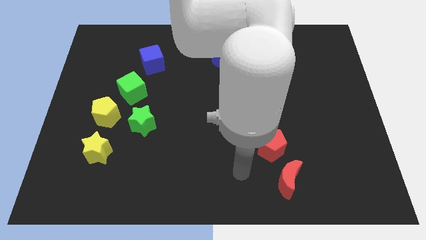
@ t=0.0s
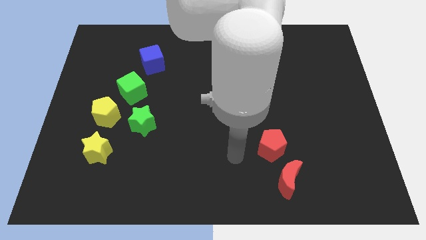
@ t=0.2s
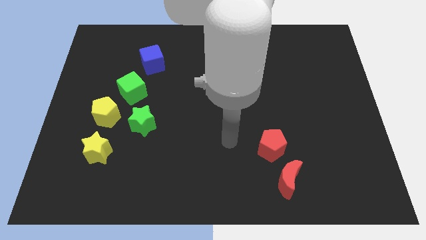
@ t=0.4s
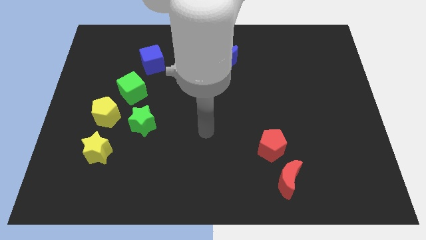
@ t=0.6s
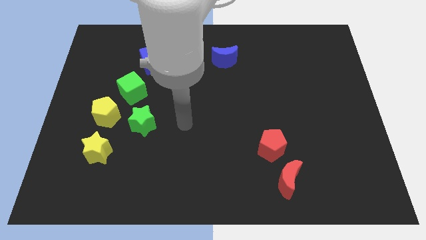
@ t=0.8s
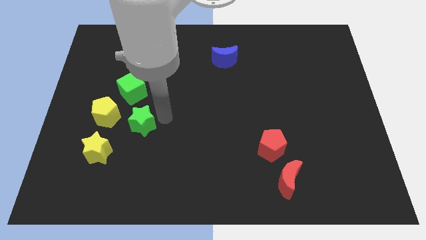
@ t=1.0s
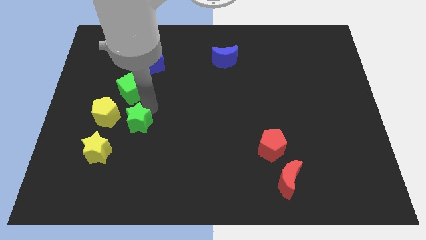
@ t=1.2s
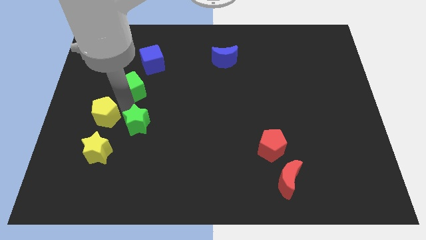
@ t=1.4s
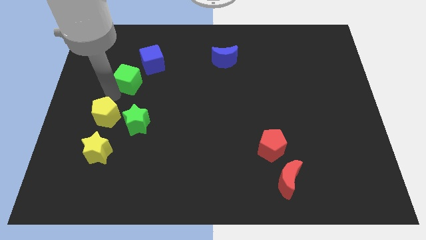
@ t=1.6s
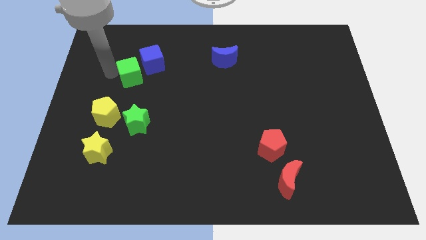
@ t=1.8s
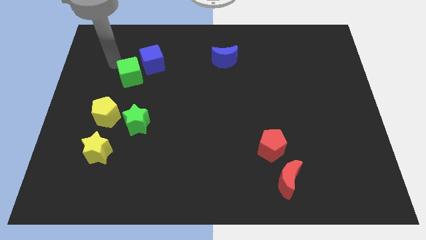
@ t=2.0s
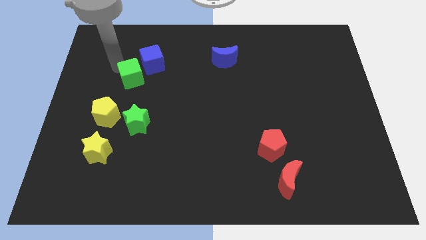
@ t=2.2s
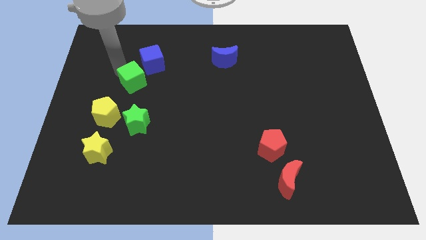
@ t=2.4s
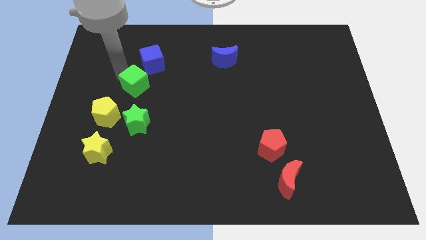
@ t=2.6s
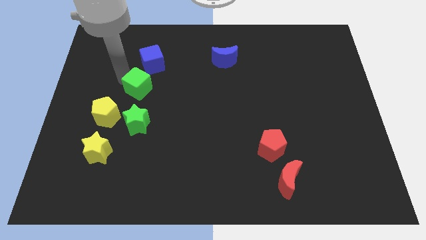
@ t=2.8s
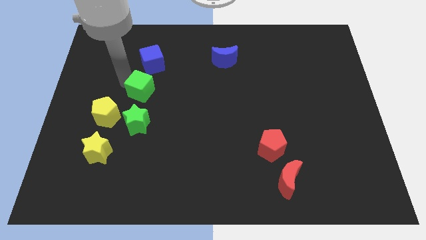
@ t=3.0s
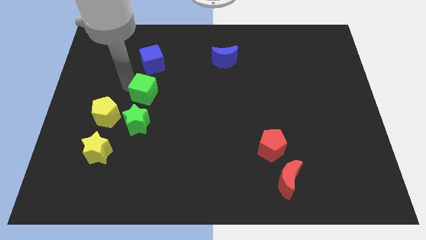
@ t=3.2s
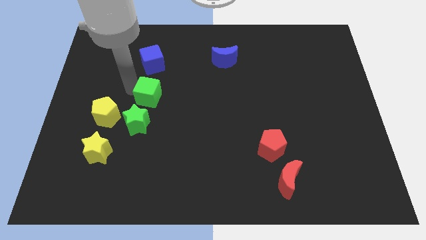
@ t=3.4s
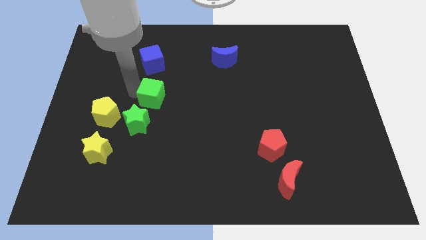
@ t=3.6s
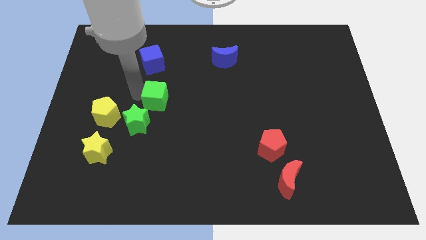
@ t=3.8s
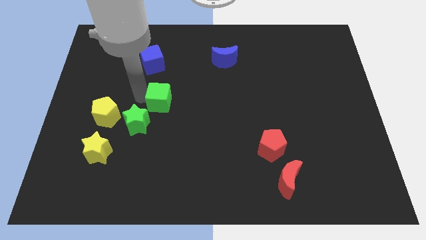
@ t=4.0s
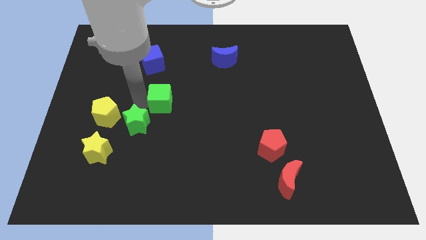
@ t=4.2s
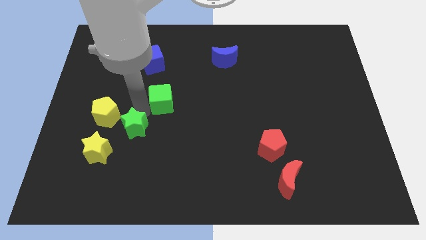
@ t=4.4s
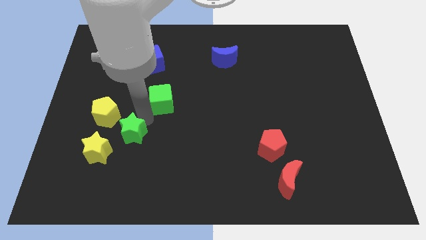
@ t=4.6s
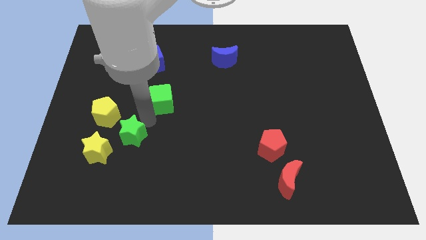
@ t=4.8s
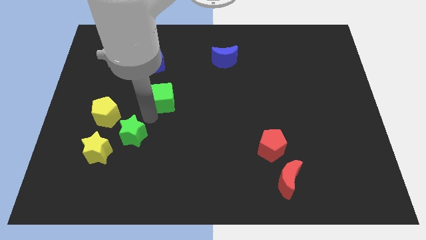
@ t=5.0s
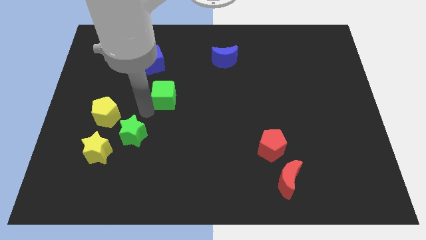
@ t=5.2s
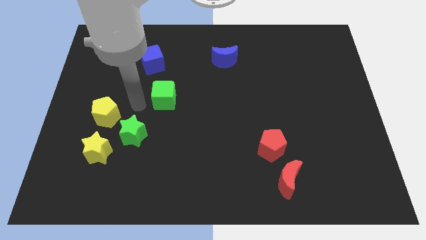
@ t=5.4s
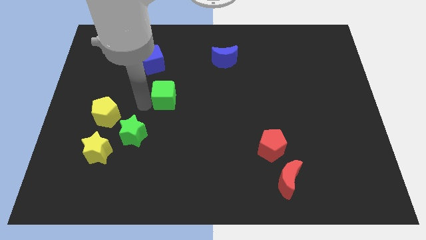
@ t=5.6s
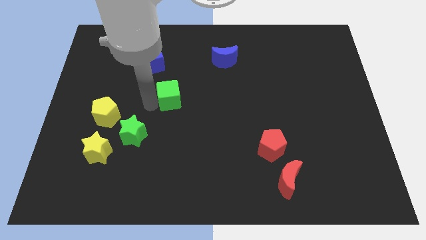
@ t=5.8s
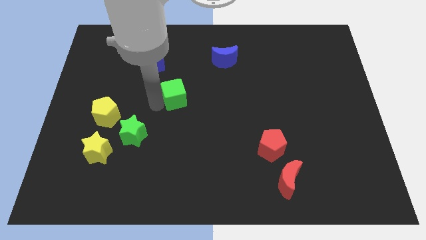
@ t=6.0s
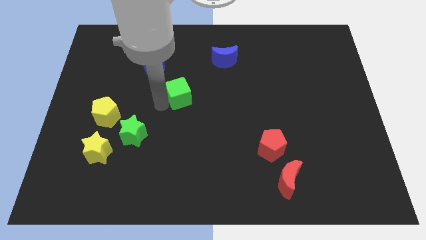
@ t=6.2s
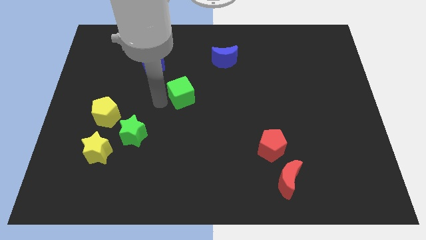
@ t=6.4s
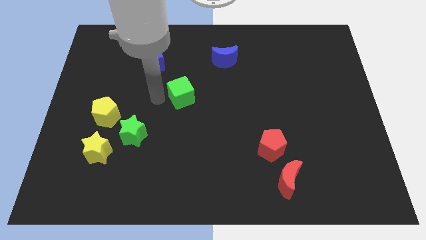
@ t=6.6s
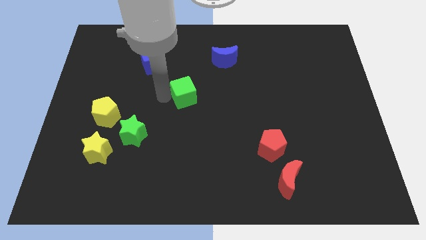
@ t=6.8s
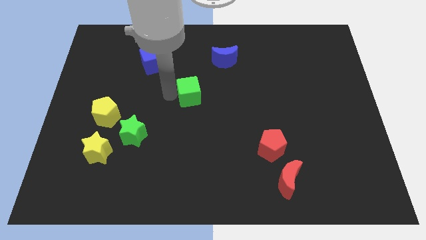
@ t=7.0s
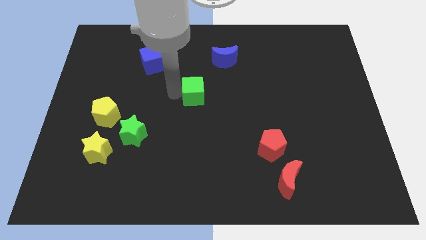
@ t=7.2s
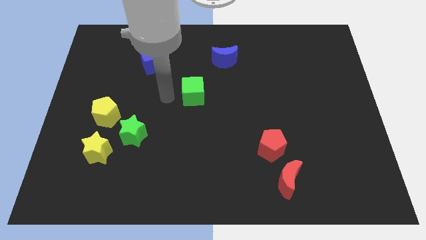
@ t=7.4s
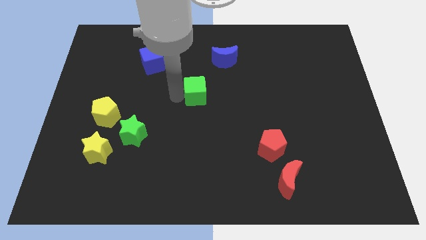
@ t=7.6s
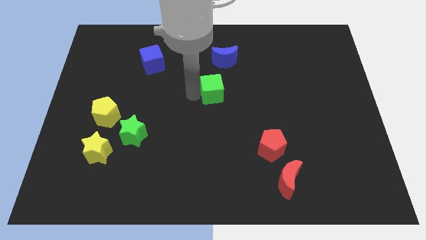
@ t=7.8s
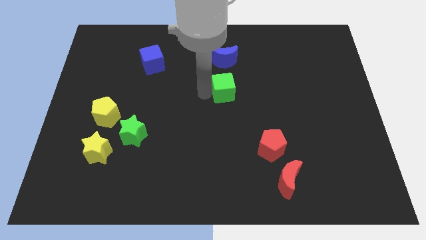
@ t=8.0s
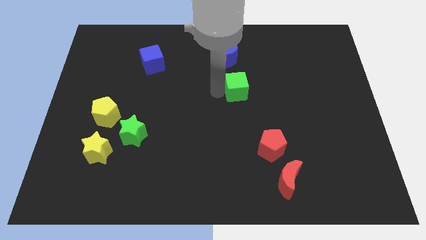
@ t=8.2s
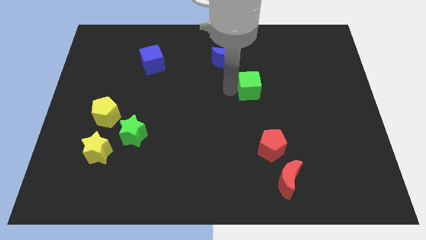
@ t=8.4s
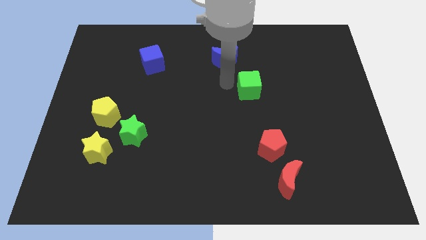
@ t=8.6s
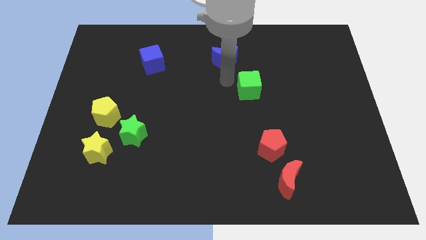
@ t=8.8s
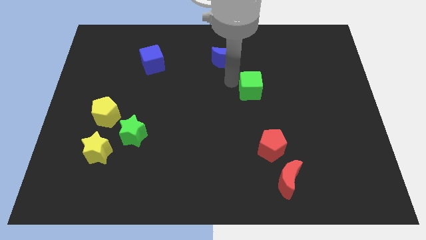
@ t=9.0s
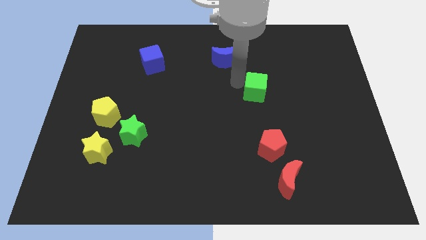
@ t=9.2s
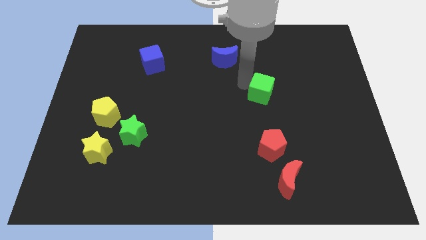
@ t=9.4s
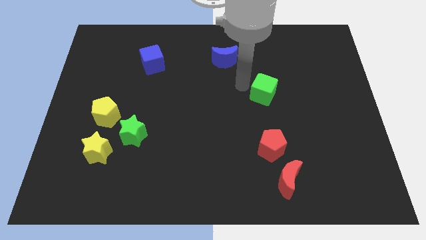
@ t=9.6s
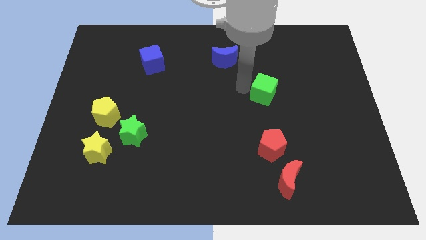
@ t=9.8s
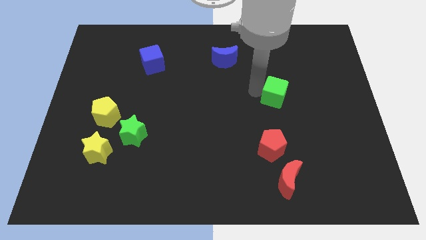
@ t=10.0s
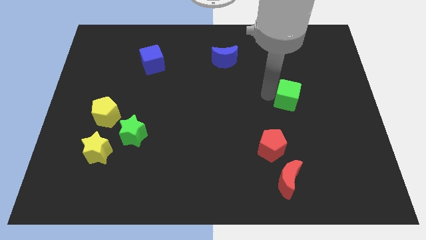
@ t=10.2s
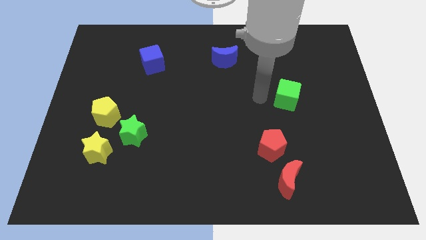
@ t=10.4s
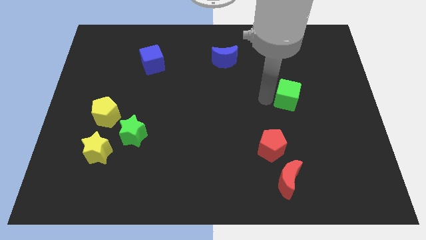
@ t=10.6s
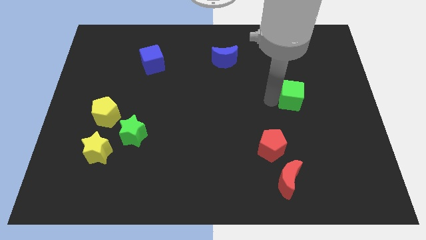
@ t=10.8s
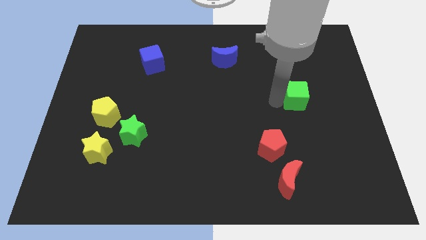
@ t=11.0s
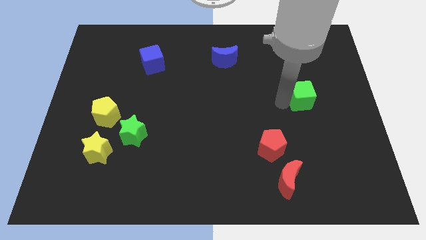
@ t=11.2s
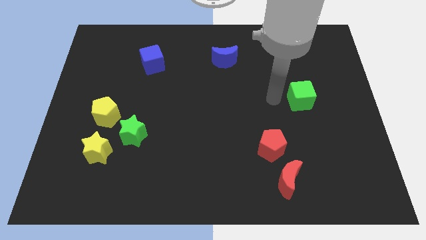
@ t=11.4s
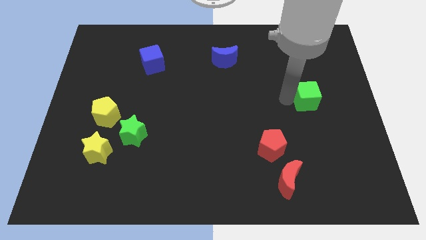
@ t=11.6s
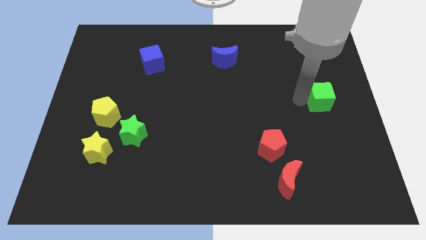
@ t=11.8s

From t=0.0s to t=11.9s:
slide the green cube to the center right
